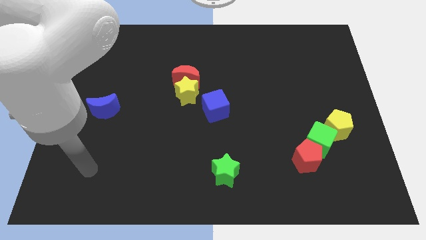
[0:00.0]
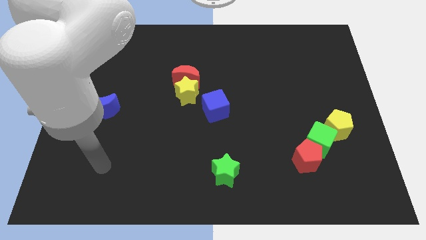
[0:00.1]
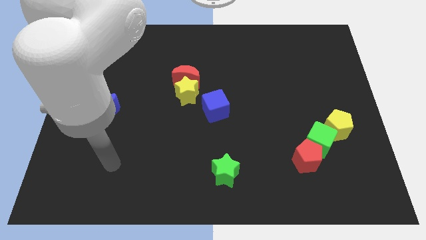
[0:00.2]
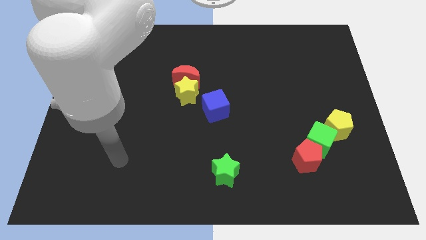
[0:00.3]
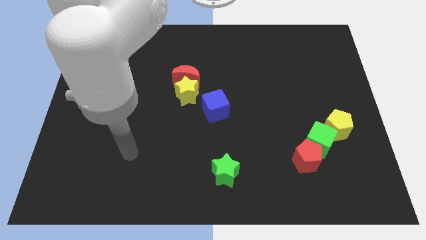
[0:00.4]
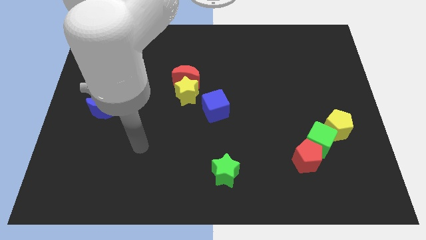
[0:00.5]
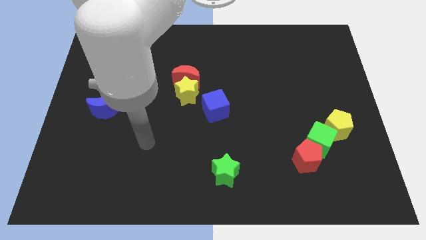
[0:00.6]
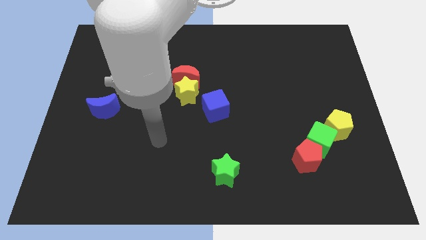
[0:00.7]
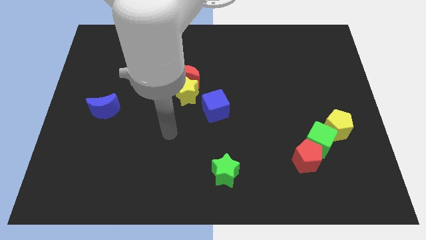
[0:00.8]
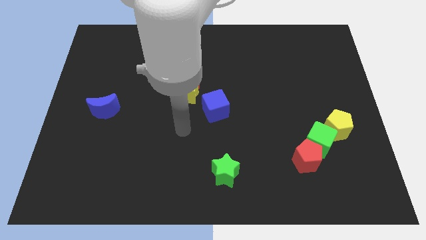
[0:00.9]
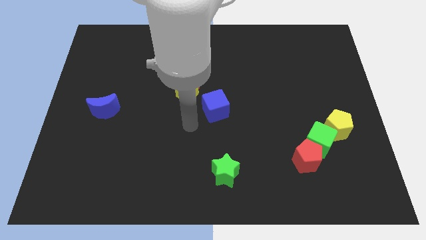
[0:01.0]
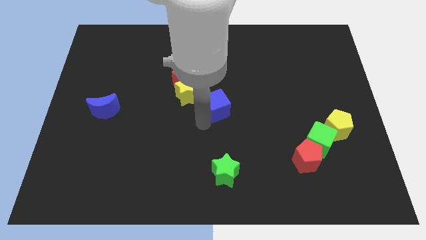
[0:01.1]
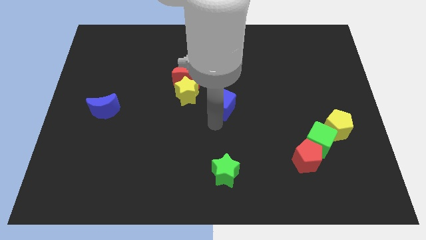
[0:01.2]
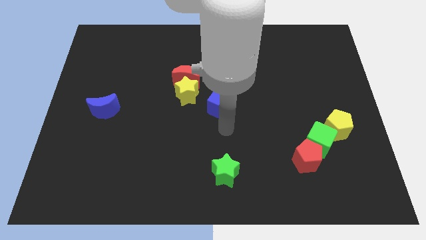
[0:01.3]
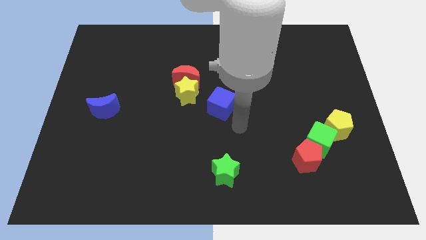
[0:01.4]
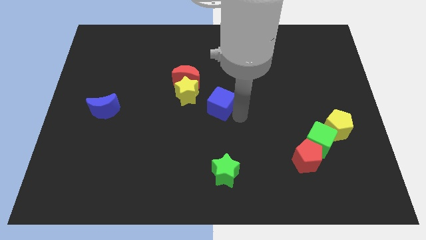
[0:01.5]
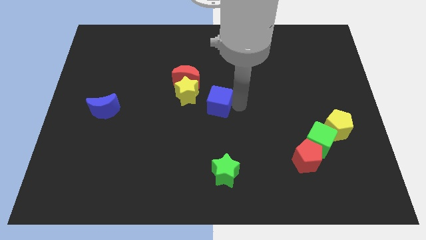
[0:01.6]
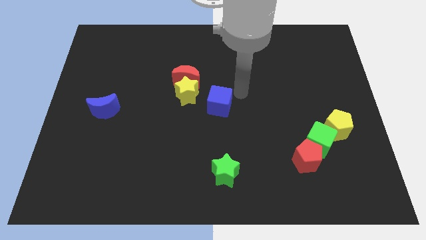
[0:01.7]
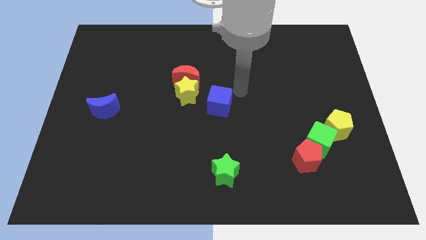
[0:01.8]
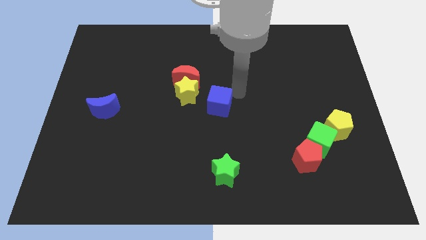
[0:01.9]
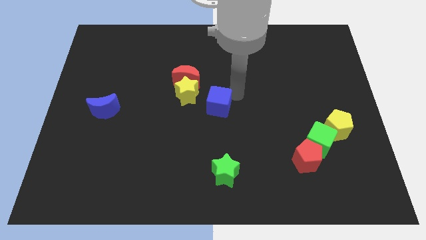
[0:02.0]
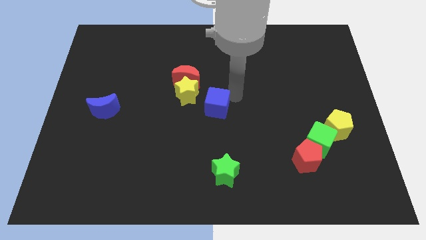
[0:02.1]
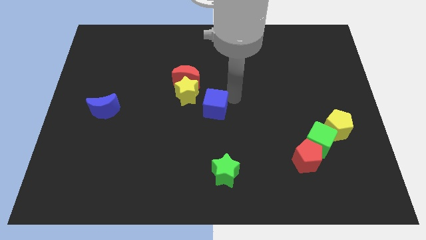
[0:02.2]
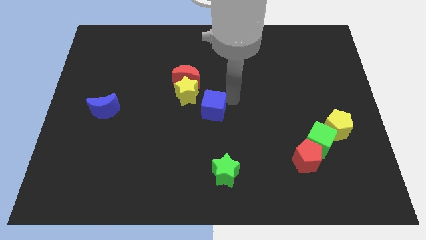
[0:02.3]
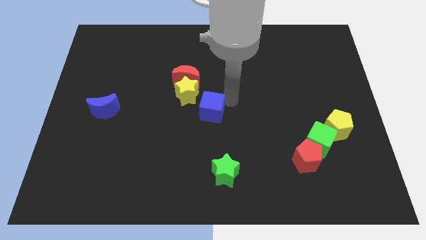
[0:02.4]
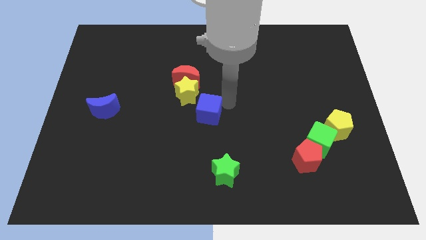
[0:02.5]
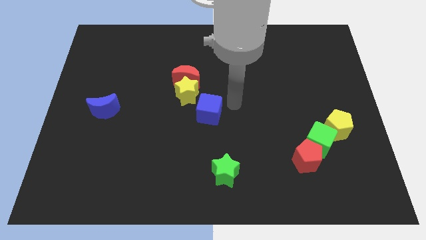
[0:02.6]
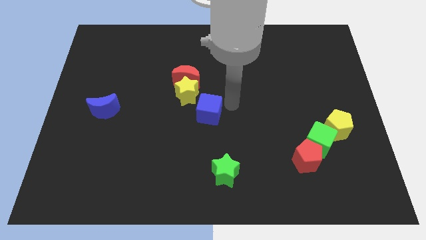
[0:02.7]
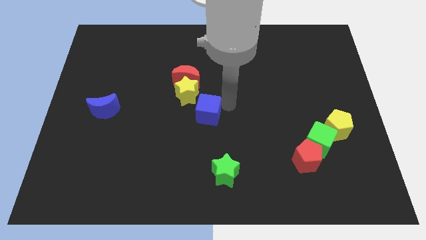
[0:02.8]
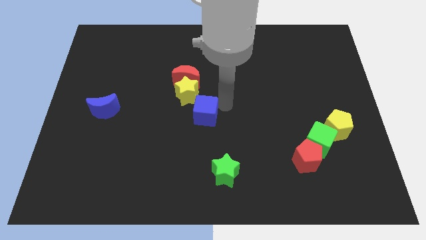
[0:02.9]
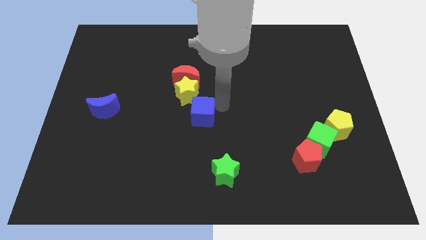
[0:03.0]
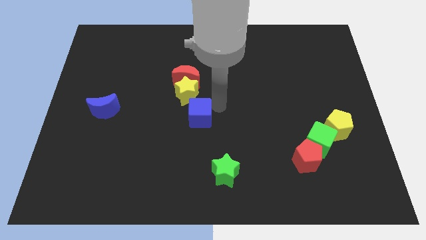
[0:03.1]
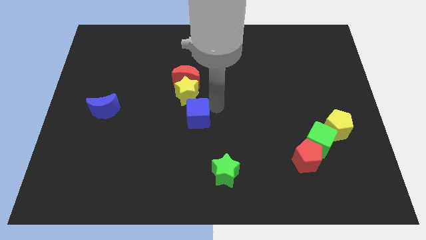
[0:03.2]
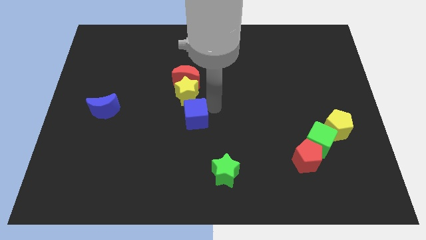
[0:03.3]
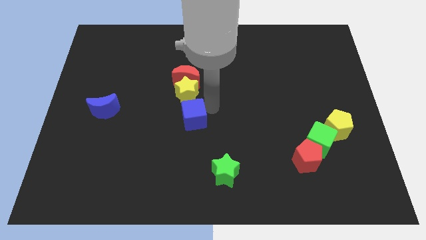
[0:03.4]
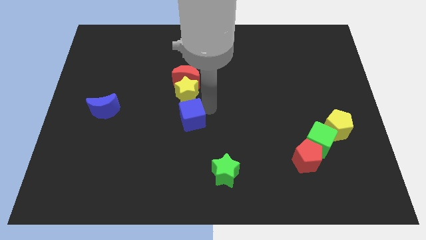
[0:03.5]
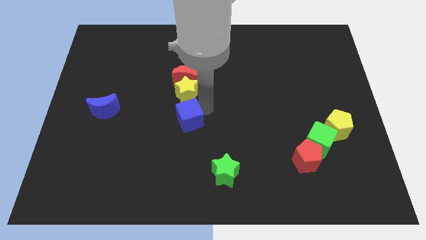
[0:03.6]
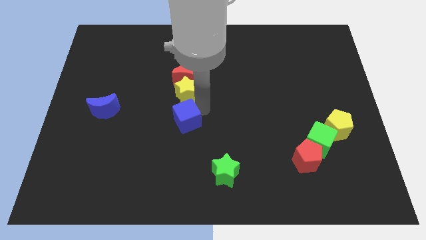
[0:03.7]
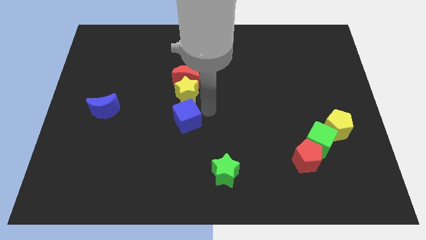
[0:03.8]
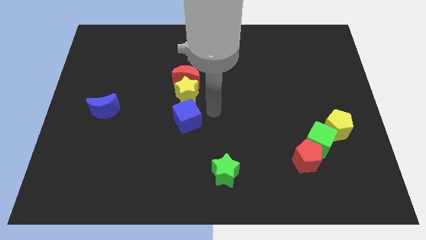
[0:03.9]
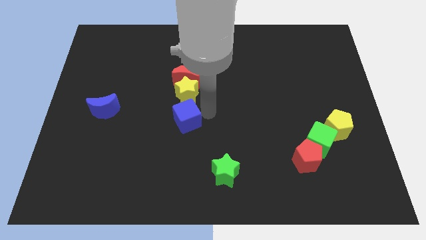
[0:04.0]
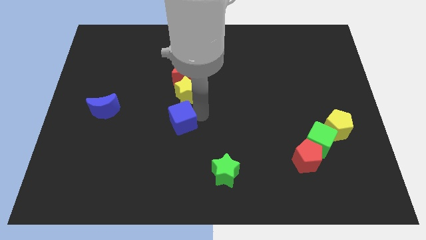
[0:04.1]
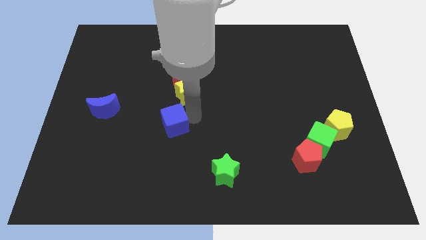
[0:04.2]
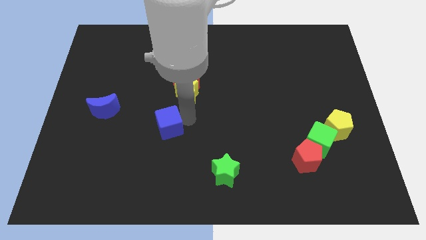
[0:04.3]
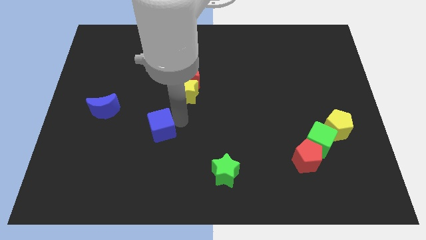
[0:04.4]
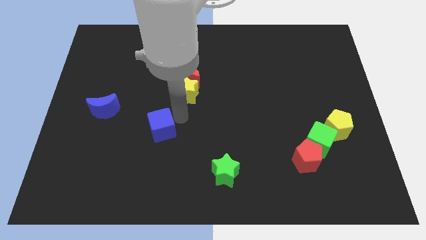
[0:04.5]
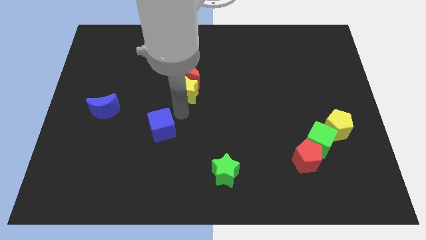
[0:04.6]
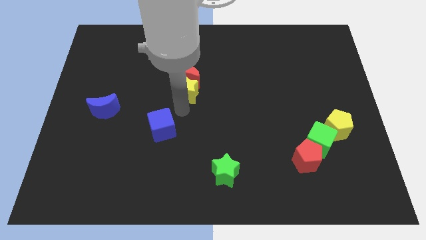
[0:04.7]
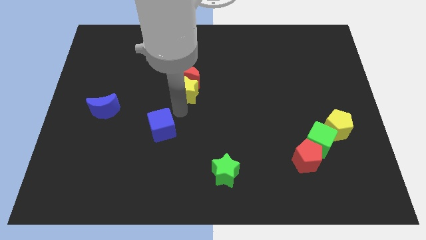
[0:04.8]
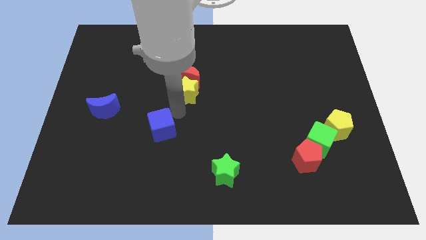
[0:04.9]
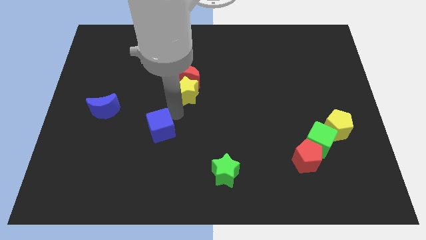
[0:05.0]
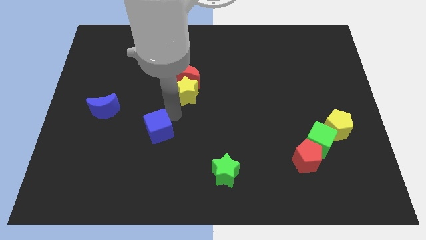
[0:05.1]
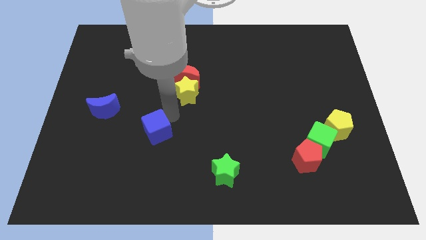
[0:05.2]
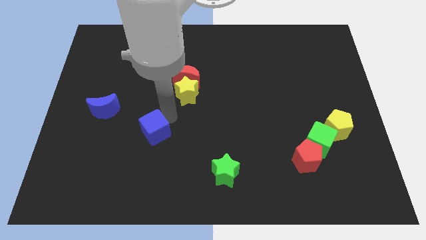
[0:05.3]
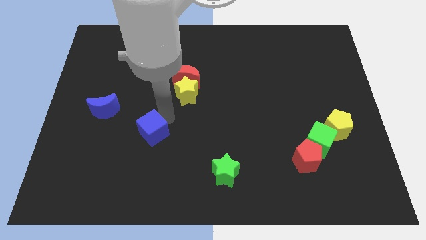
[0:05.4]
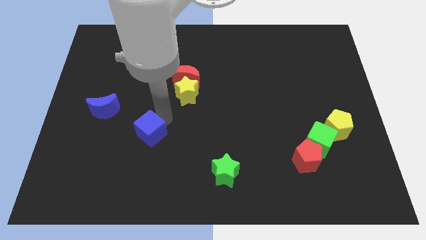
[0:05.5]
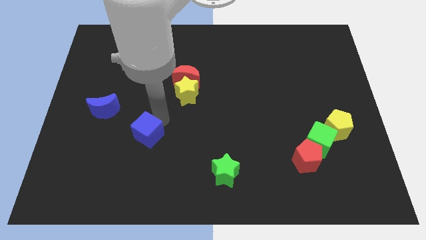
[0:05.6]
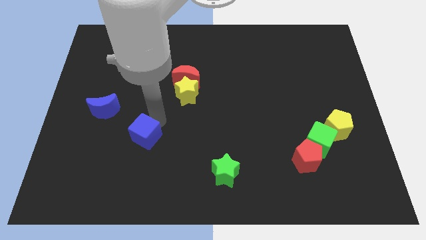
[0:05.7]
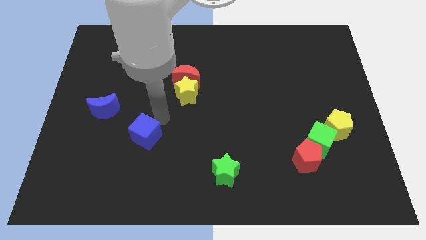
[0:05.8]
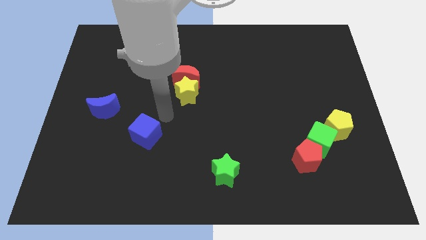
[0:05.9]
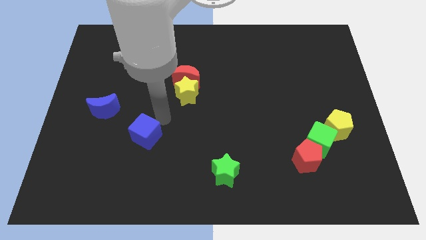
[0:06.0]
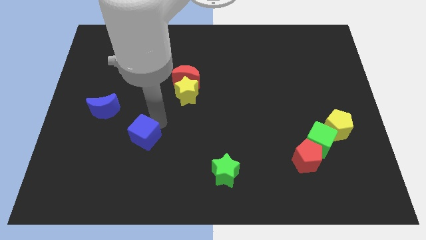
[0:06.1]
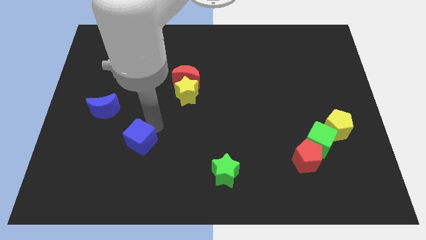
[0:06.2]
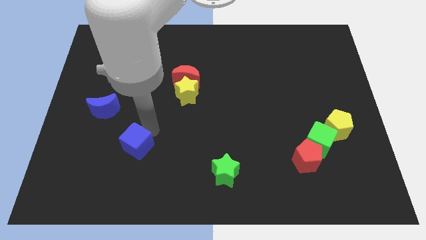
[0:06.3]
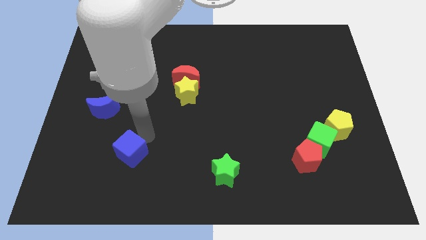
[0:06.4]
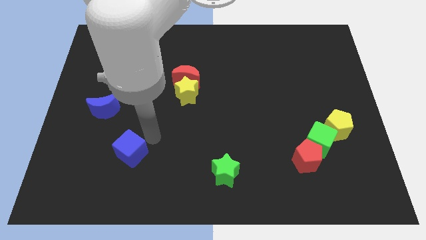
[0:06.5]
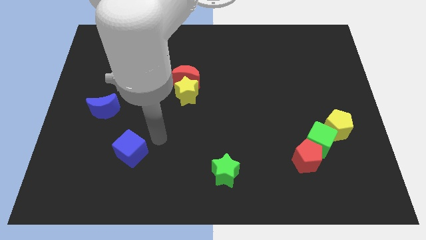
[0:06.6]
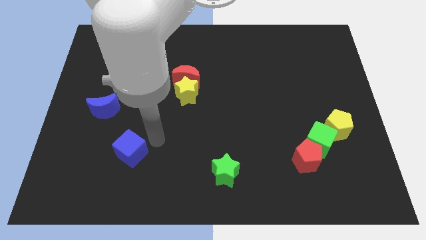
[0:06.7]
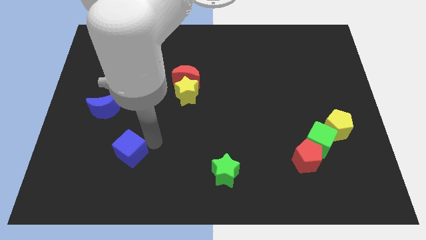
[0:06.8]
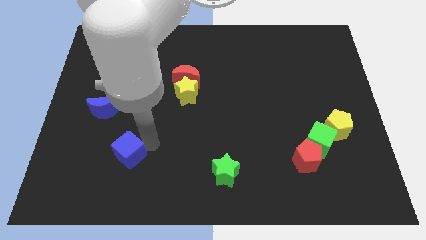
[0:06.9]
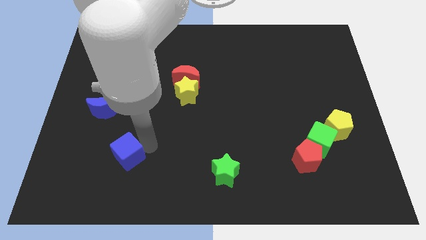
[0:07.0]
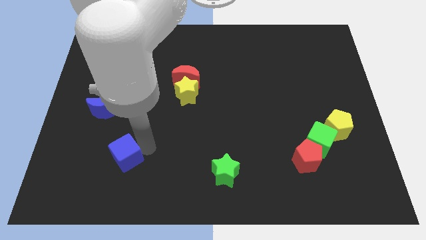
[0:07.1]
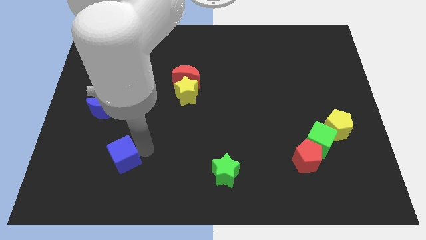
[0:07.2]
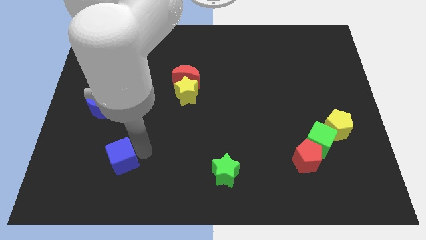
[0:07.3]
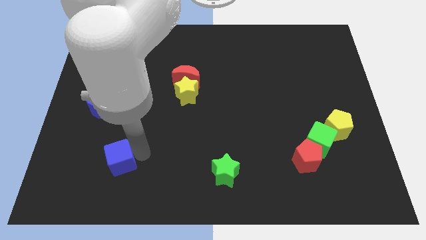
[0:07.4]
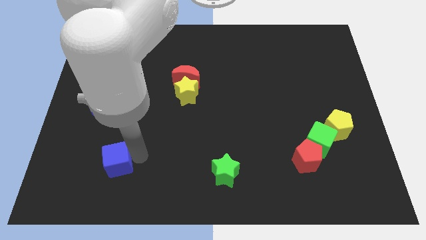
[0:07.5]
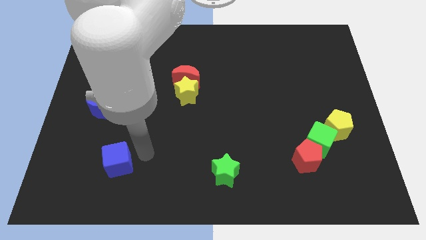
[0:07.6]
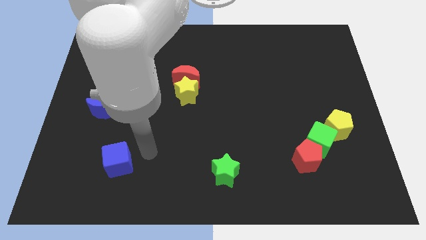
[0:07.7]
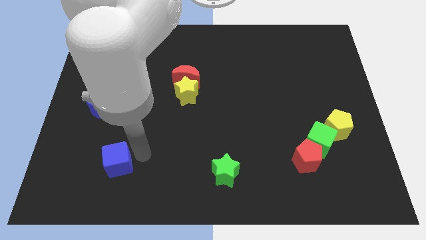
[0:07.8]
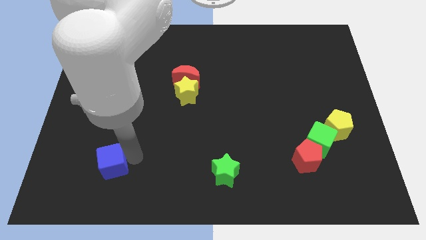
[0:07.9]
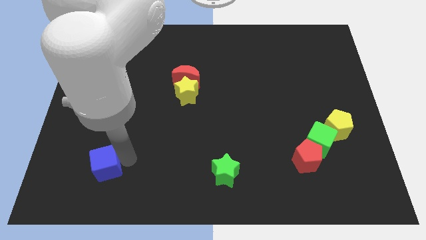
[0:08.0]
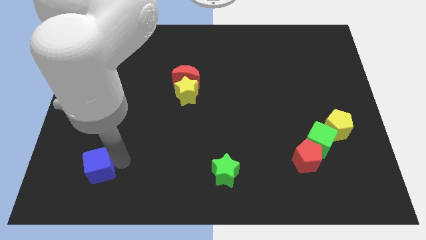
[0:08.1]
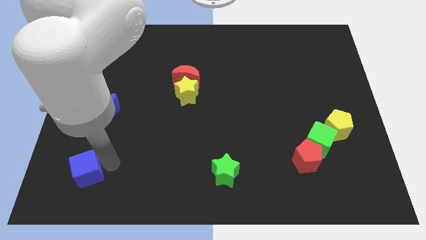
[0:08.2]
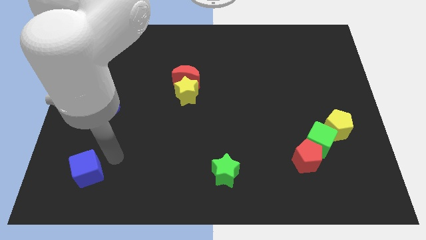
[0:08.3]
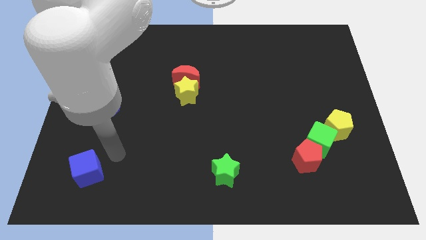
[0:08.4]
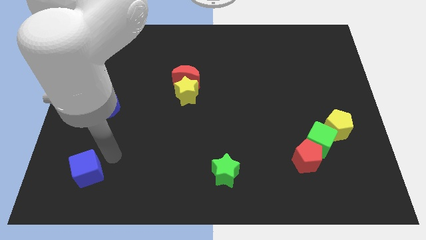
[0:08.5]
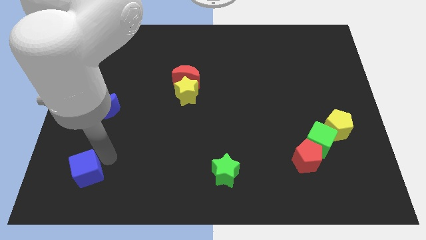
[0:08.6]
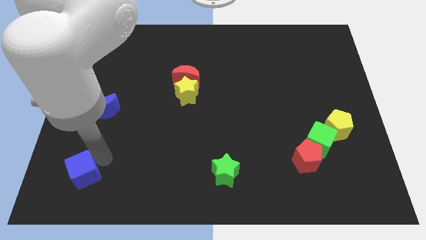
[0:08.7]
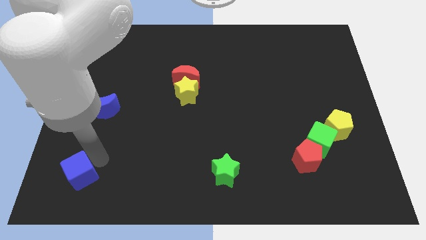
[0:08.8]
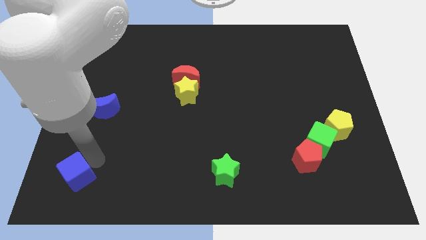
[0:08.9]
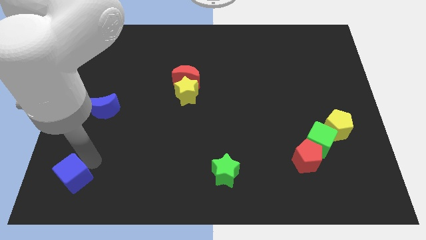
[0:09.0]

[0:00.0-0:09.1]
put the blue cube to the bottom left corner
